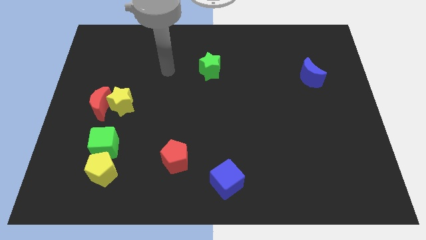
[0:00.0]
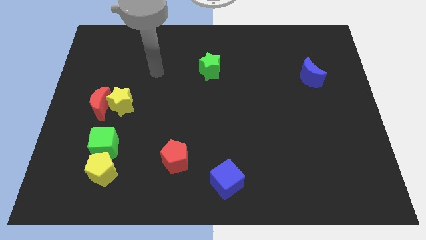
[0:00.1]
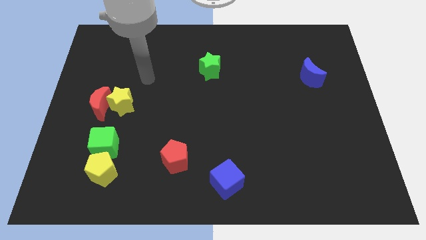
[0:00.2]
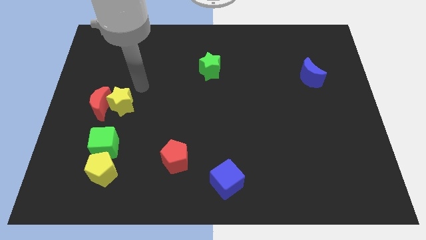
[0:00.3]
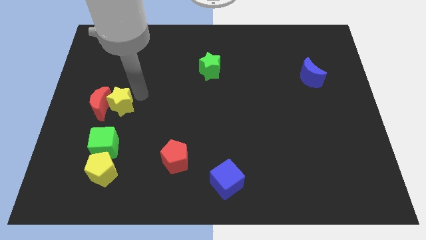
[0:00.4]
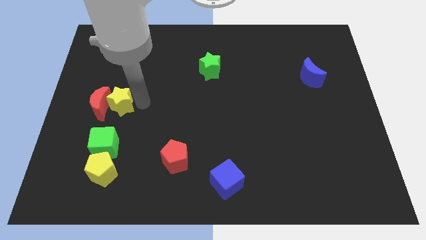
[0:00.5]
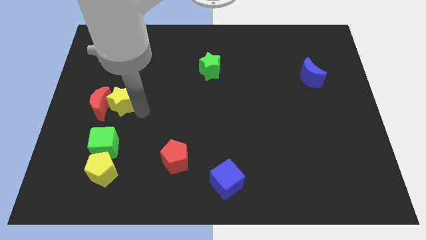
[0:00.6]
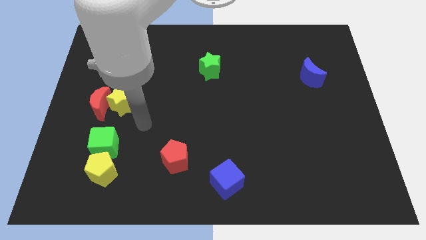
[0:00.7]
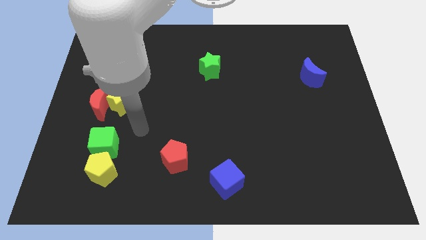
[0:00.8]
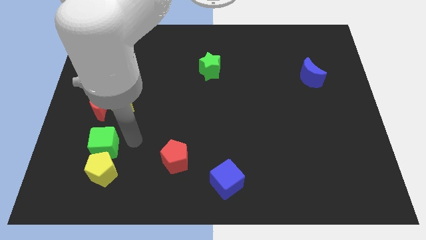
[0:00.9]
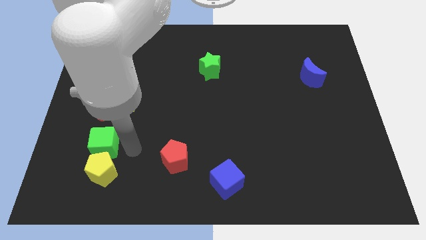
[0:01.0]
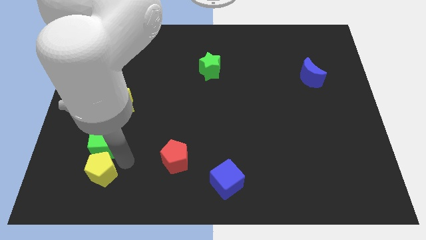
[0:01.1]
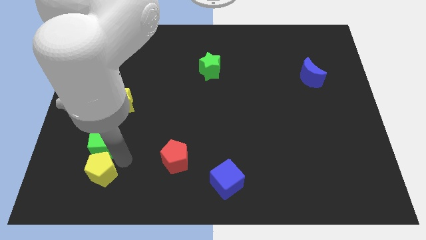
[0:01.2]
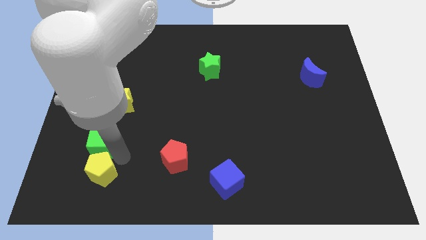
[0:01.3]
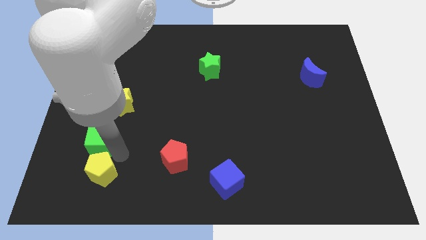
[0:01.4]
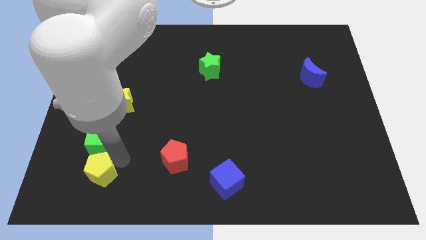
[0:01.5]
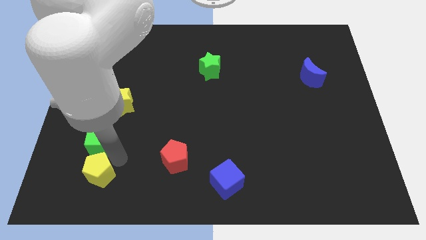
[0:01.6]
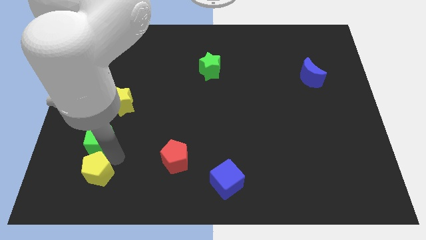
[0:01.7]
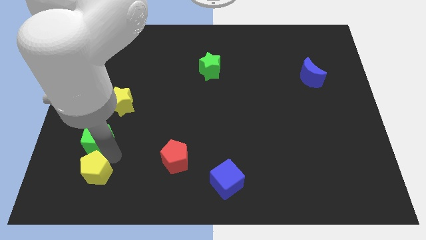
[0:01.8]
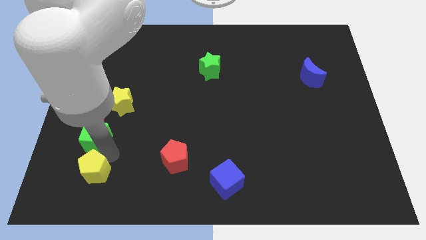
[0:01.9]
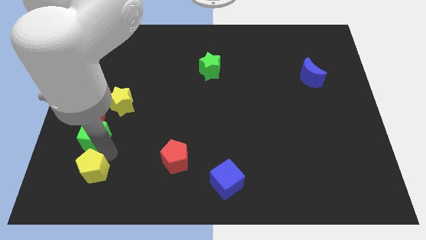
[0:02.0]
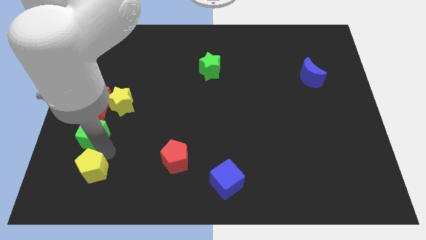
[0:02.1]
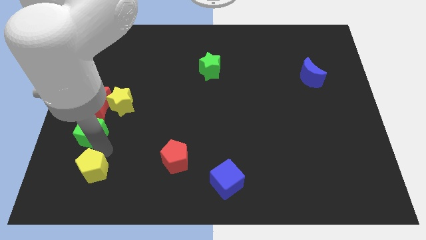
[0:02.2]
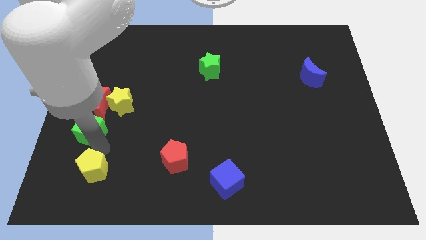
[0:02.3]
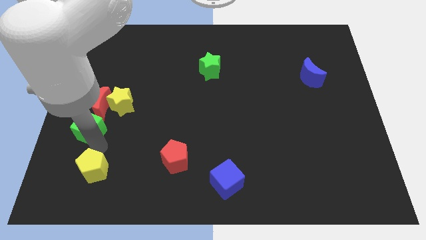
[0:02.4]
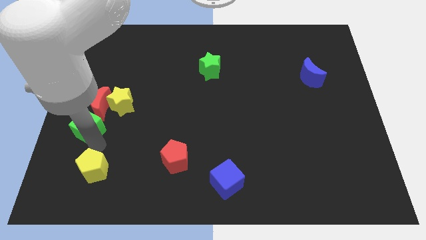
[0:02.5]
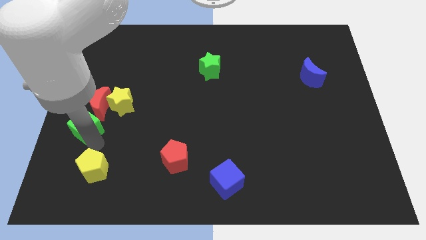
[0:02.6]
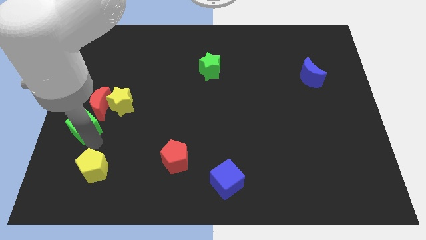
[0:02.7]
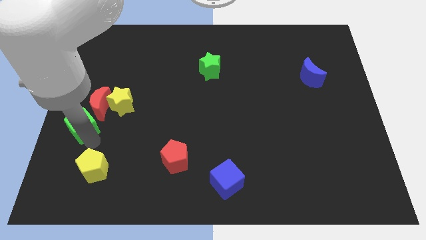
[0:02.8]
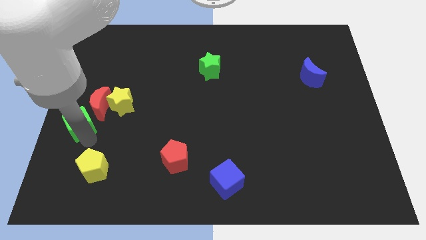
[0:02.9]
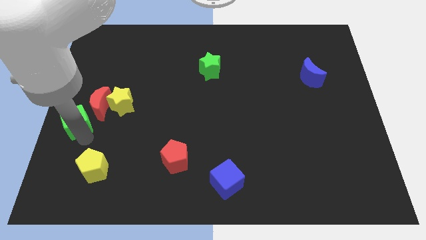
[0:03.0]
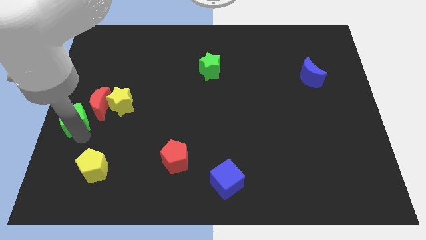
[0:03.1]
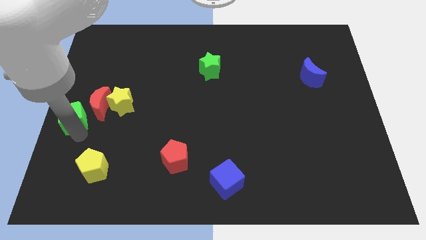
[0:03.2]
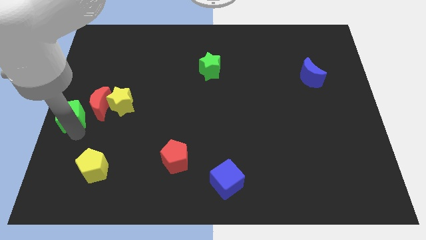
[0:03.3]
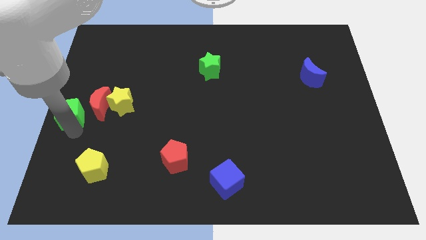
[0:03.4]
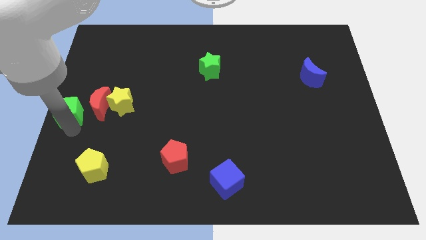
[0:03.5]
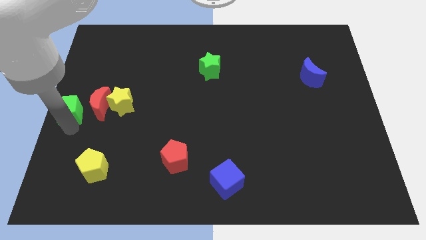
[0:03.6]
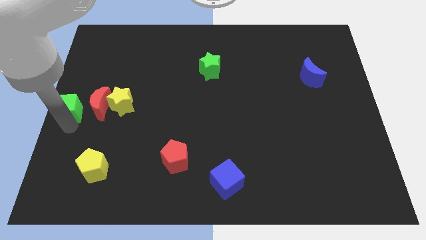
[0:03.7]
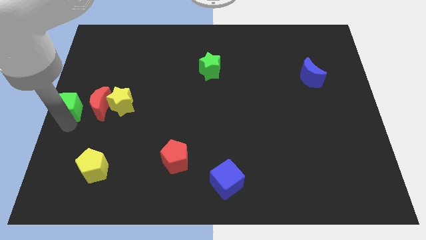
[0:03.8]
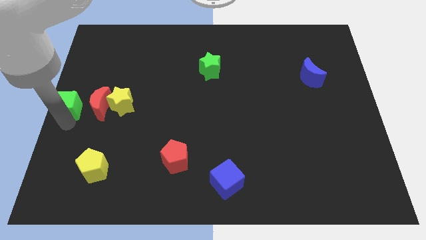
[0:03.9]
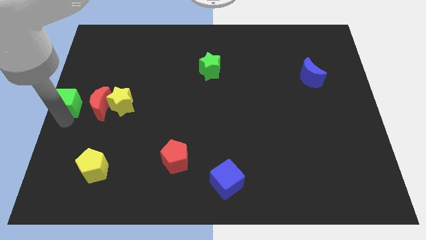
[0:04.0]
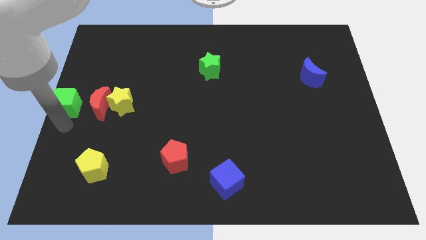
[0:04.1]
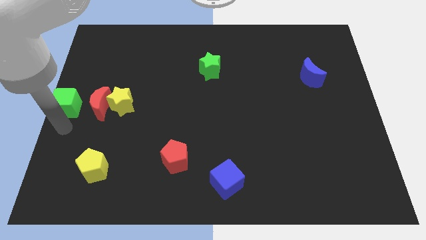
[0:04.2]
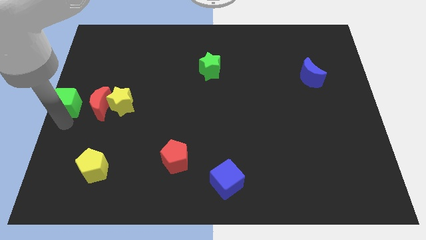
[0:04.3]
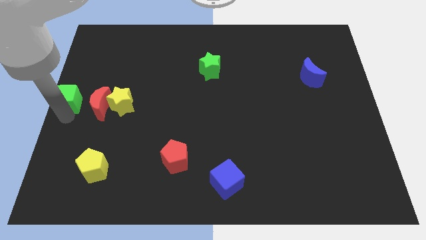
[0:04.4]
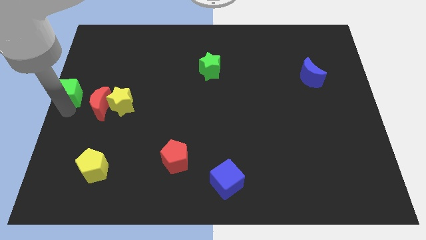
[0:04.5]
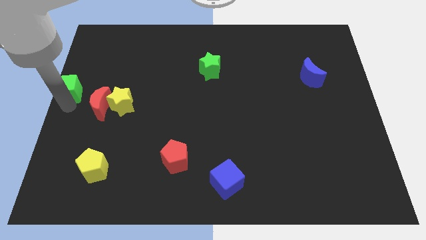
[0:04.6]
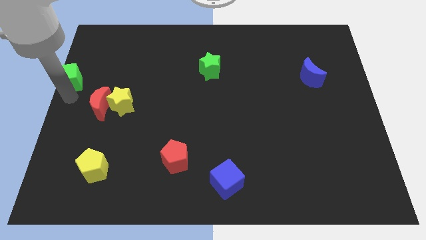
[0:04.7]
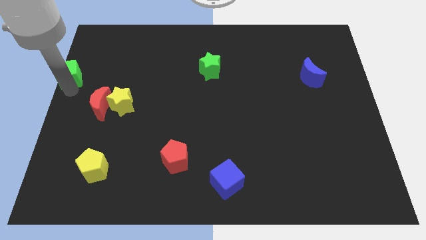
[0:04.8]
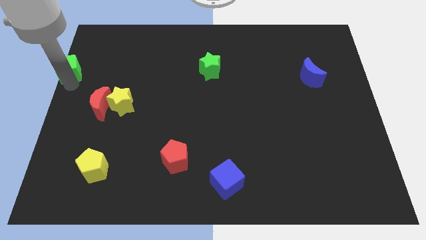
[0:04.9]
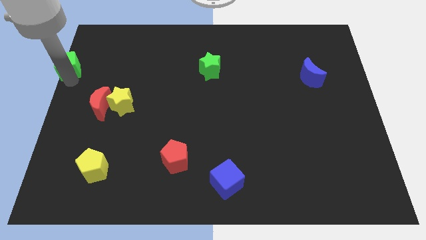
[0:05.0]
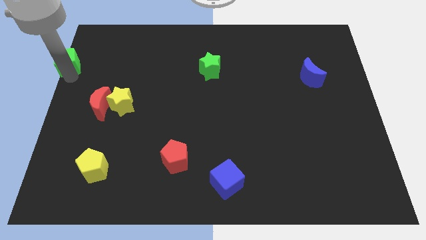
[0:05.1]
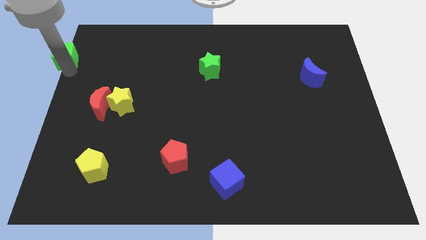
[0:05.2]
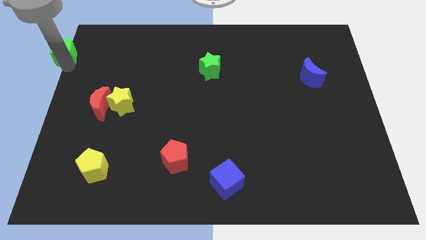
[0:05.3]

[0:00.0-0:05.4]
put the green cube to the top left

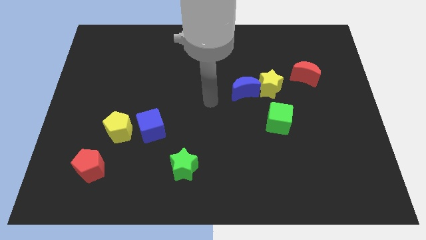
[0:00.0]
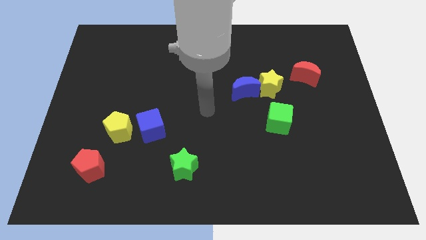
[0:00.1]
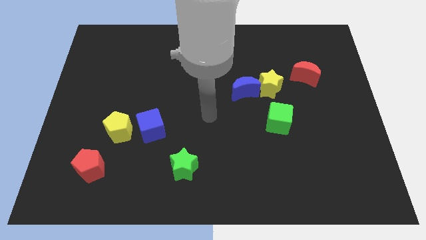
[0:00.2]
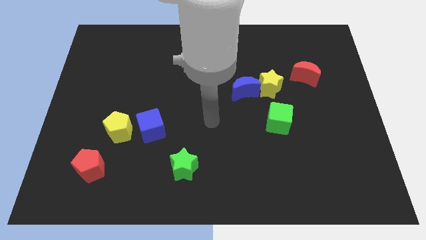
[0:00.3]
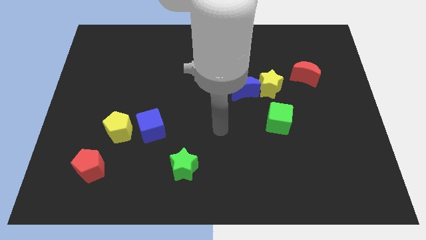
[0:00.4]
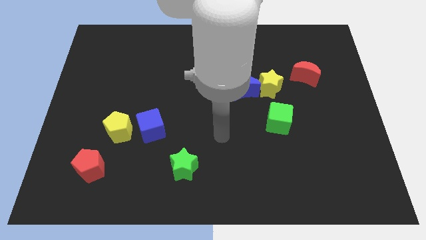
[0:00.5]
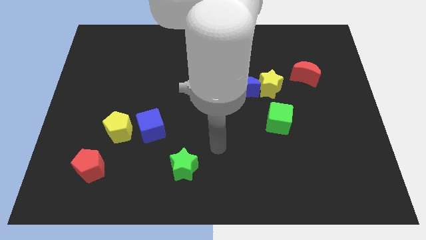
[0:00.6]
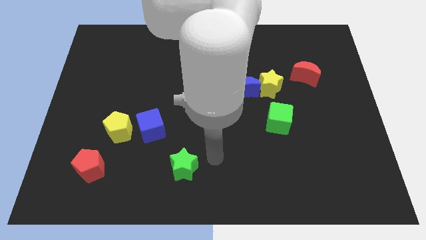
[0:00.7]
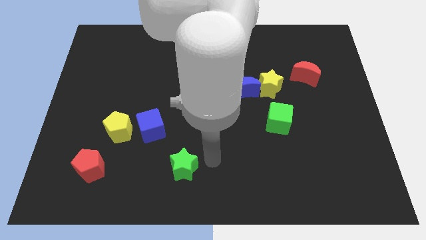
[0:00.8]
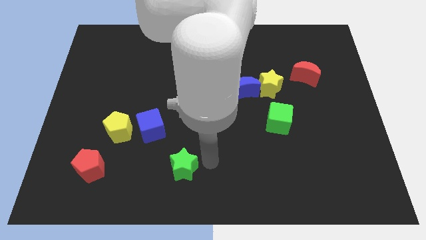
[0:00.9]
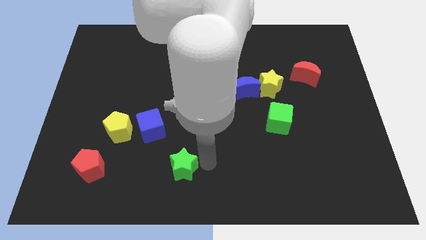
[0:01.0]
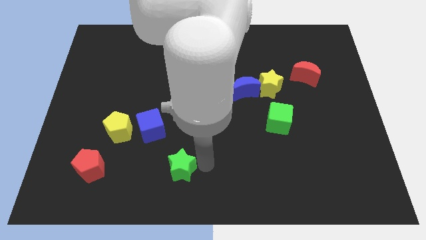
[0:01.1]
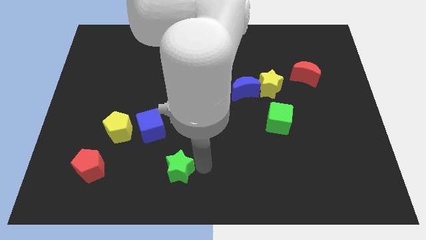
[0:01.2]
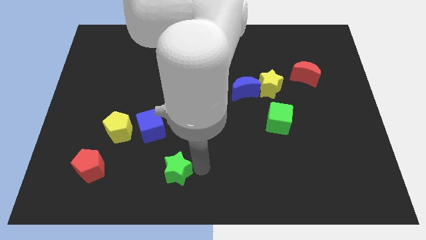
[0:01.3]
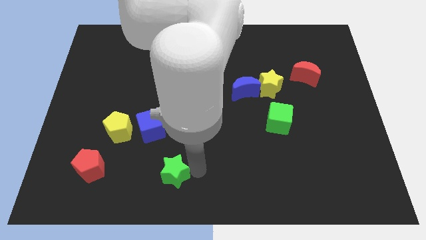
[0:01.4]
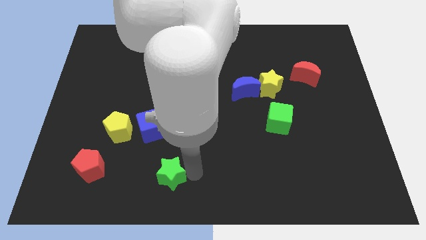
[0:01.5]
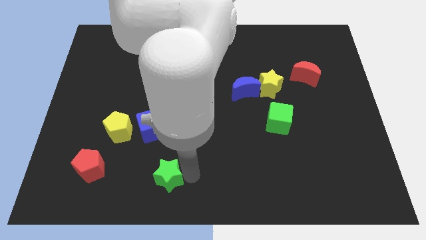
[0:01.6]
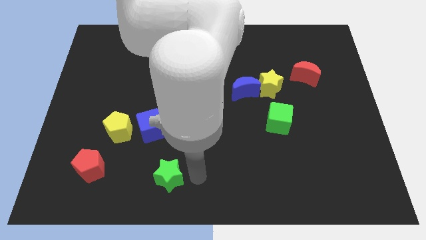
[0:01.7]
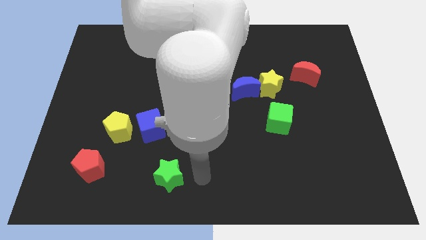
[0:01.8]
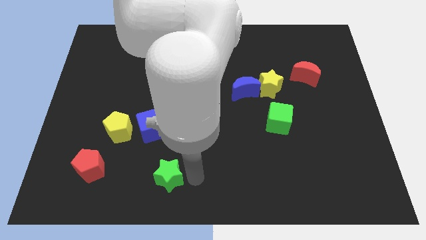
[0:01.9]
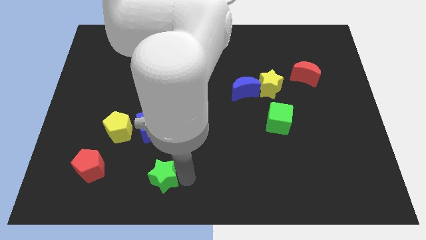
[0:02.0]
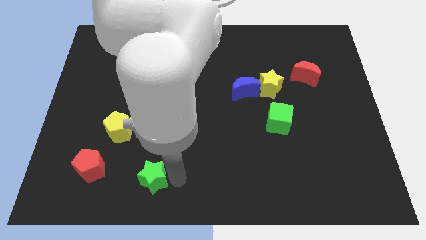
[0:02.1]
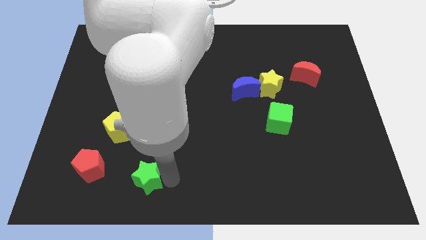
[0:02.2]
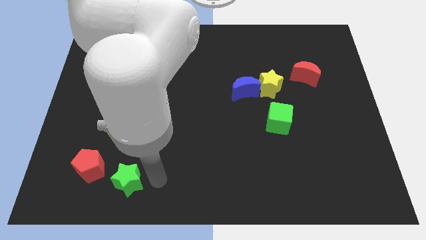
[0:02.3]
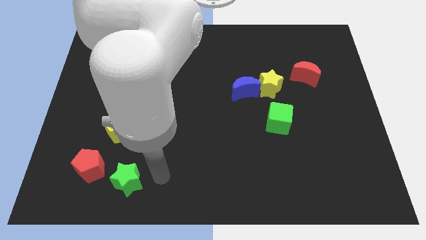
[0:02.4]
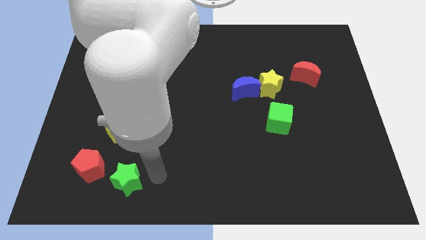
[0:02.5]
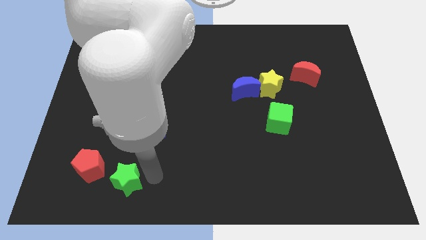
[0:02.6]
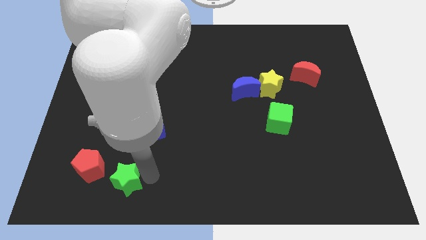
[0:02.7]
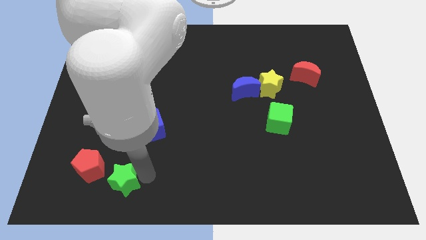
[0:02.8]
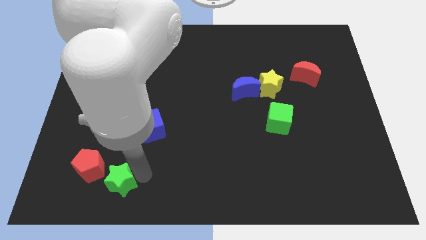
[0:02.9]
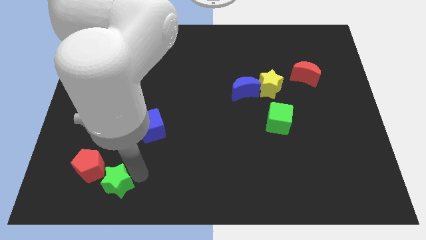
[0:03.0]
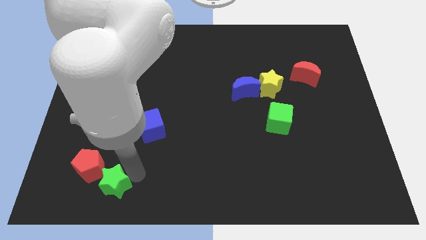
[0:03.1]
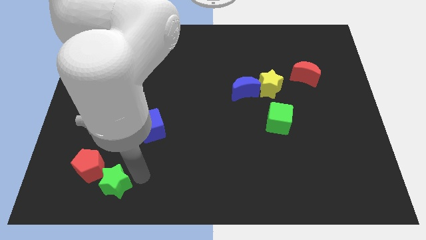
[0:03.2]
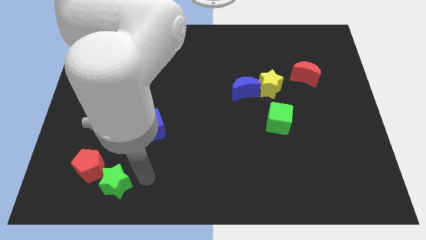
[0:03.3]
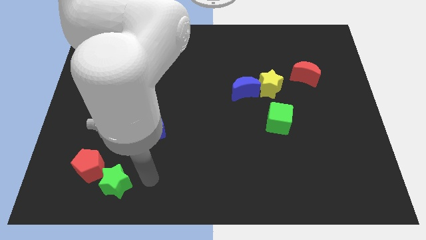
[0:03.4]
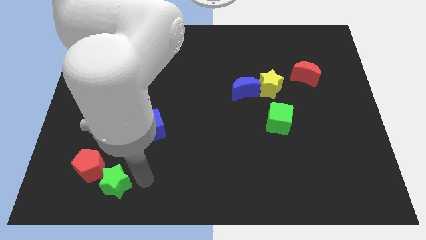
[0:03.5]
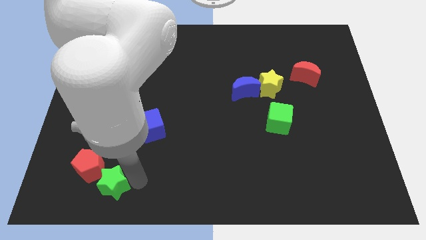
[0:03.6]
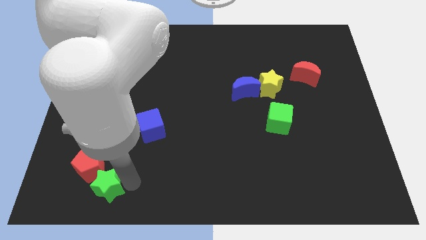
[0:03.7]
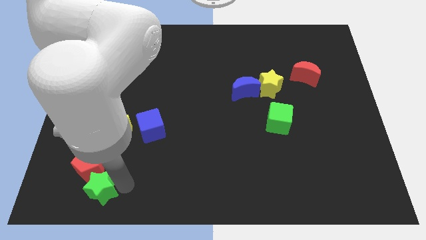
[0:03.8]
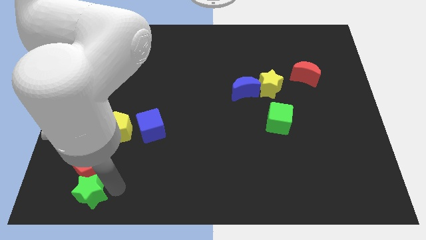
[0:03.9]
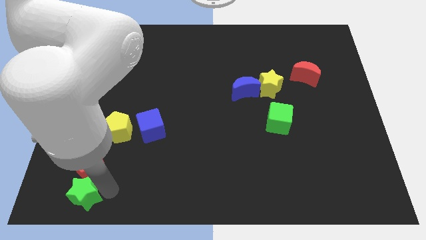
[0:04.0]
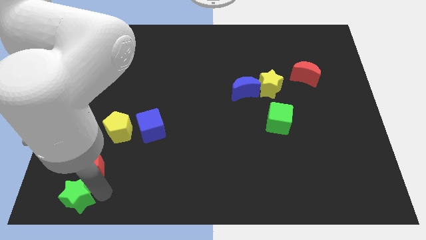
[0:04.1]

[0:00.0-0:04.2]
slide the green star to the bottom left corner
